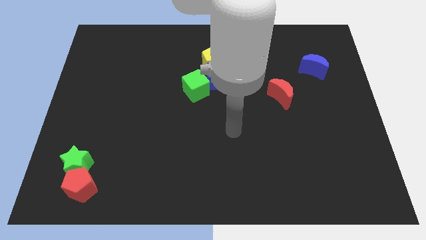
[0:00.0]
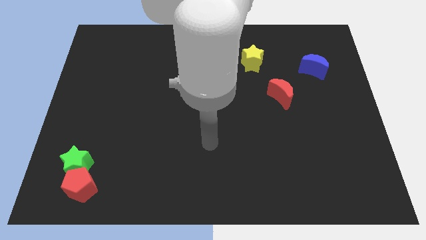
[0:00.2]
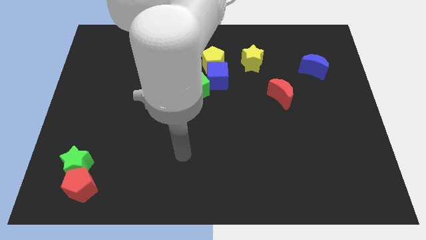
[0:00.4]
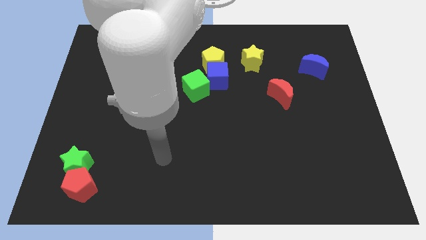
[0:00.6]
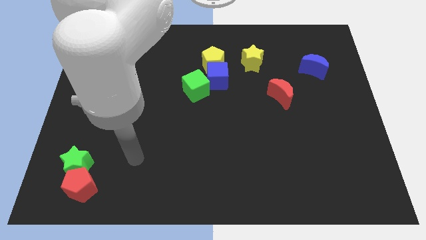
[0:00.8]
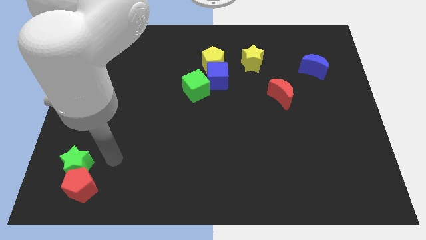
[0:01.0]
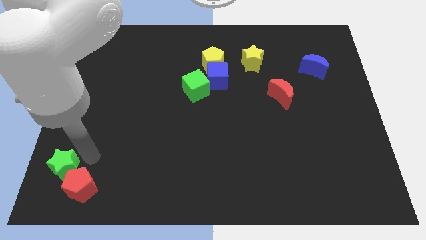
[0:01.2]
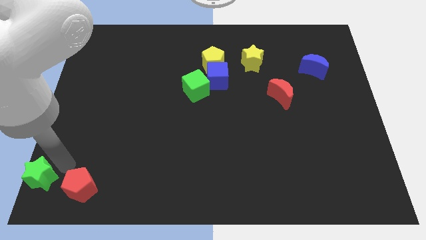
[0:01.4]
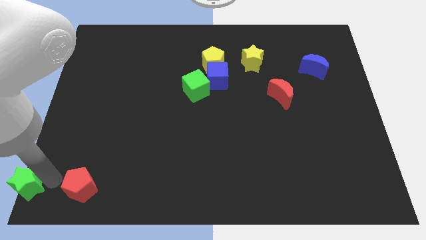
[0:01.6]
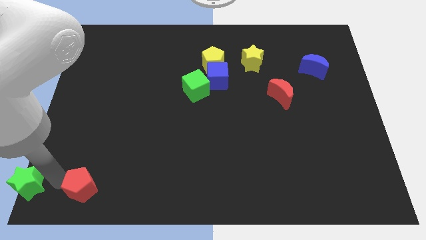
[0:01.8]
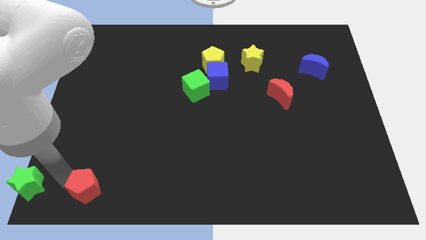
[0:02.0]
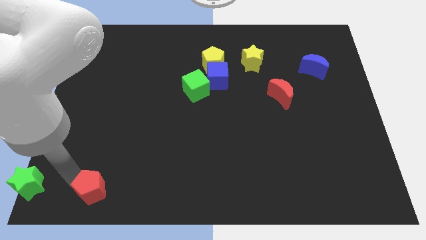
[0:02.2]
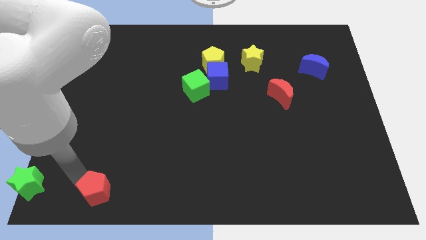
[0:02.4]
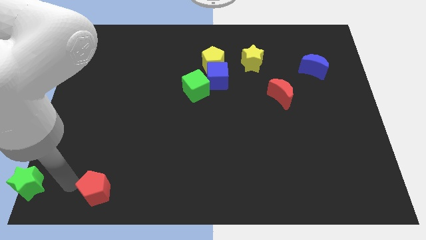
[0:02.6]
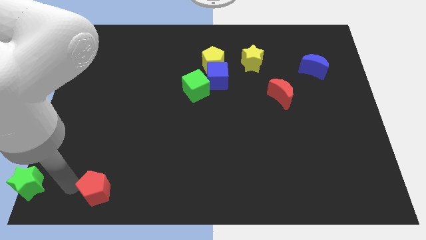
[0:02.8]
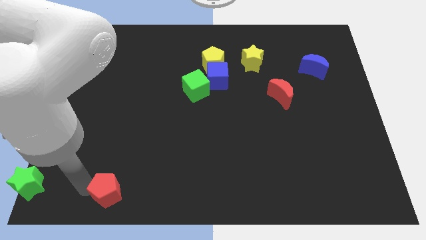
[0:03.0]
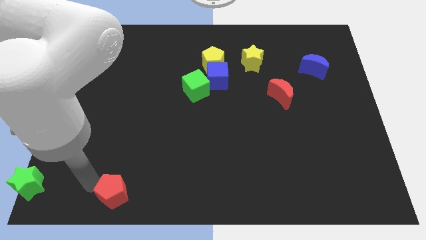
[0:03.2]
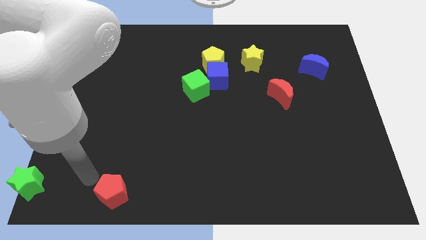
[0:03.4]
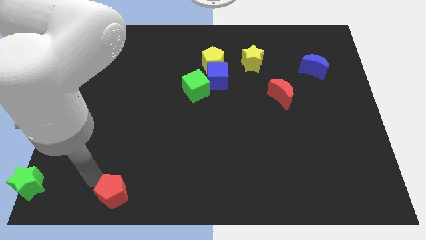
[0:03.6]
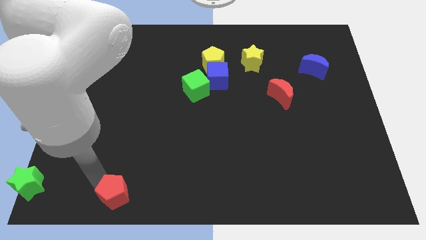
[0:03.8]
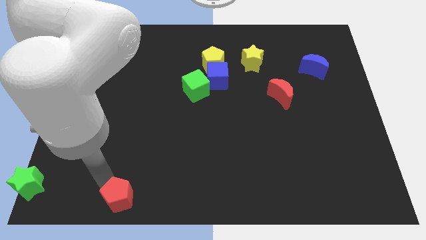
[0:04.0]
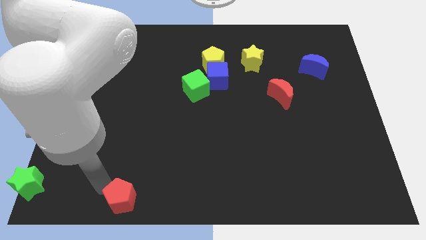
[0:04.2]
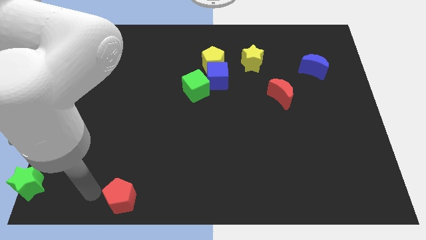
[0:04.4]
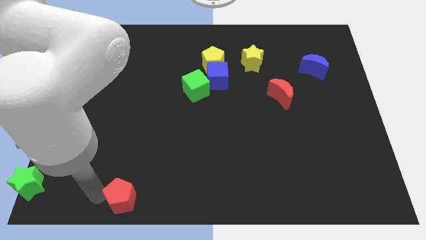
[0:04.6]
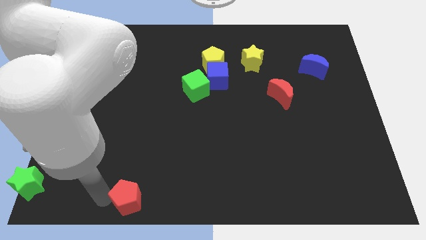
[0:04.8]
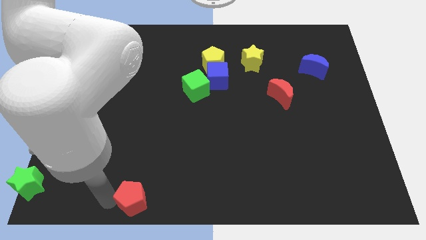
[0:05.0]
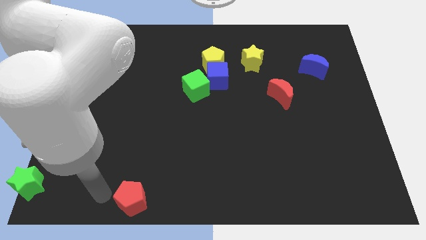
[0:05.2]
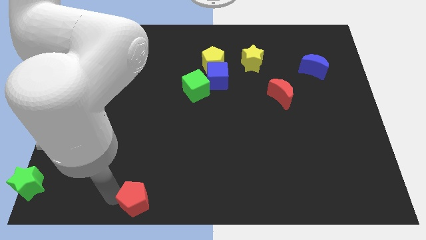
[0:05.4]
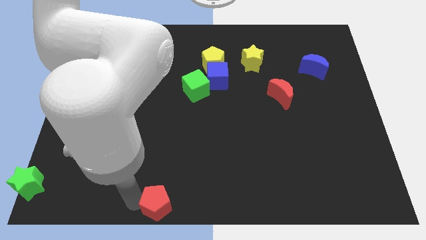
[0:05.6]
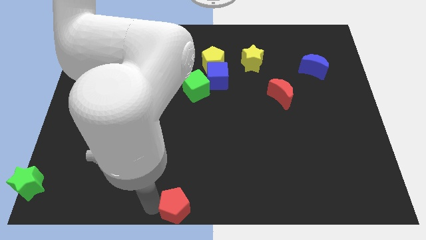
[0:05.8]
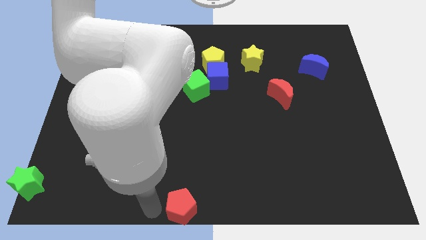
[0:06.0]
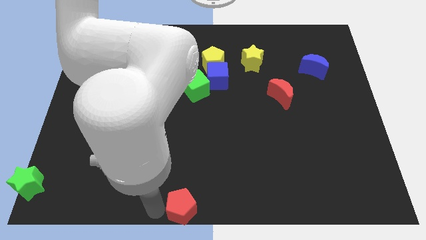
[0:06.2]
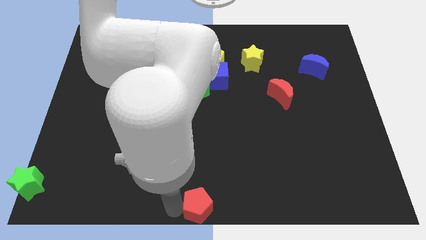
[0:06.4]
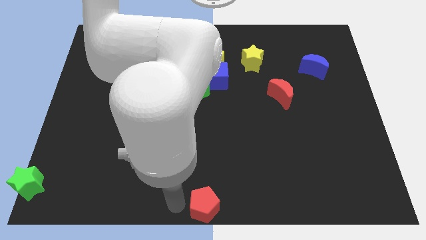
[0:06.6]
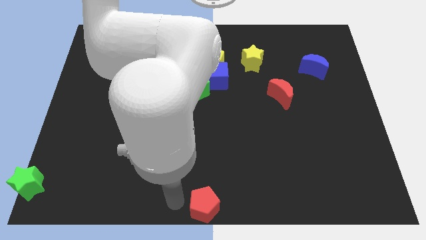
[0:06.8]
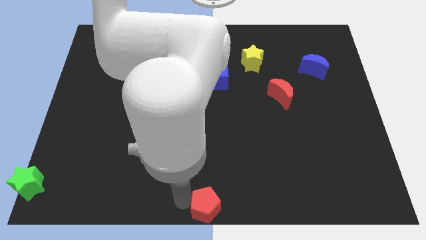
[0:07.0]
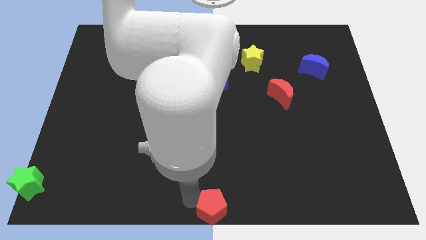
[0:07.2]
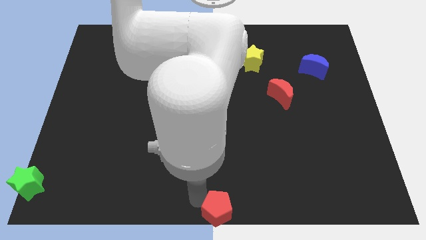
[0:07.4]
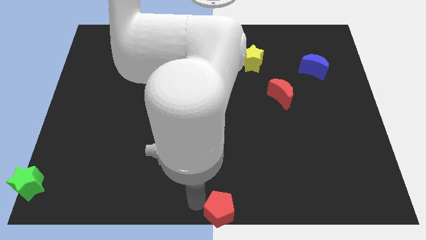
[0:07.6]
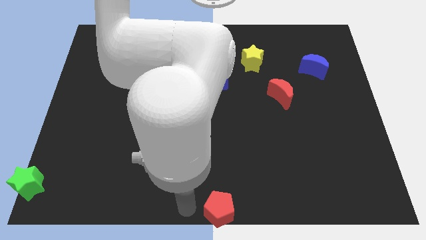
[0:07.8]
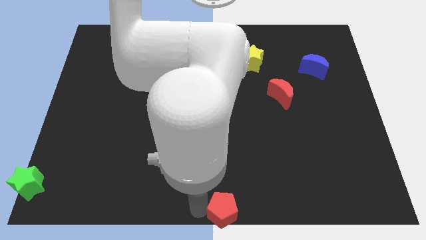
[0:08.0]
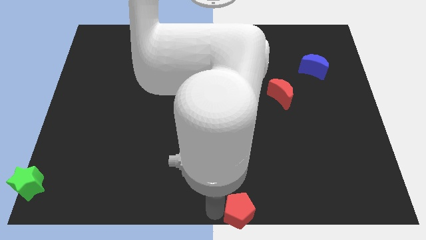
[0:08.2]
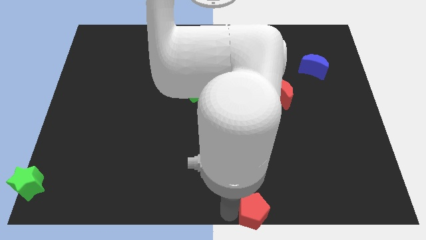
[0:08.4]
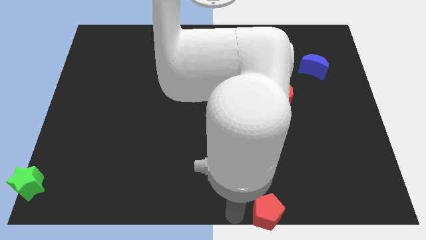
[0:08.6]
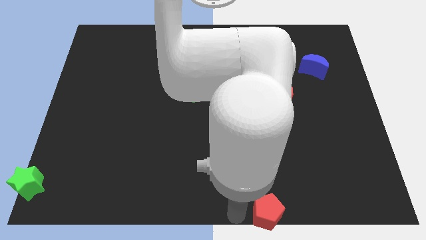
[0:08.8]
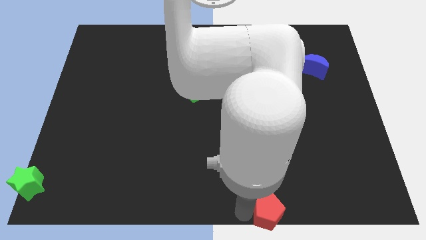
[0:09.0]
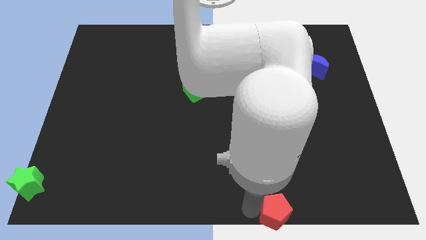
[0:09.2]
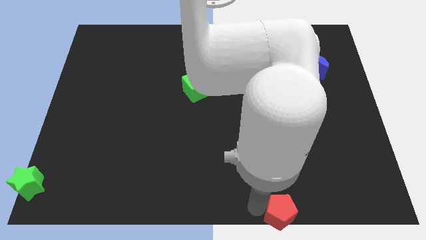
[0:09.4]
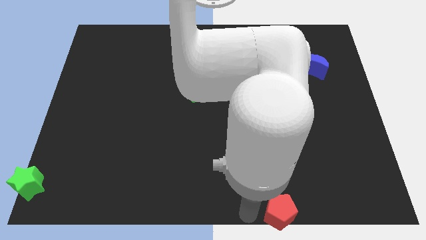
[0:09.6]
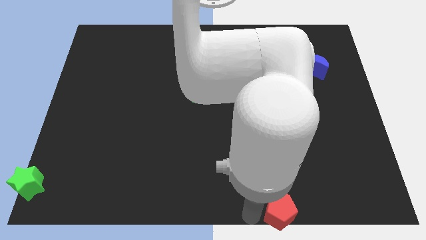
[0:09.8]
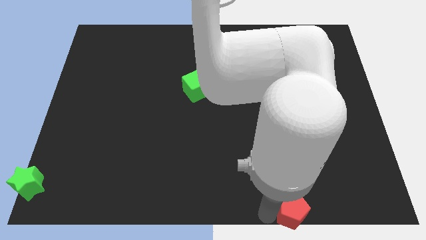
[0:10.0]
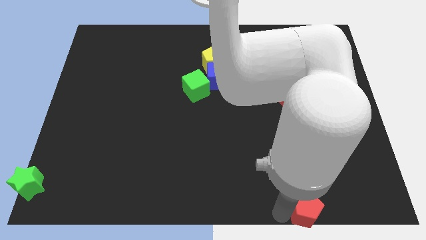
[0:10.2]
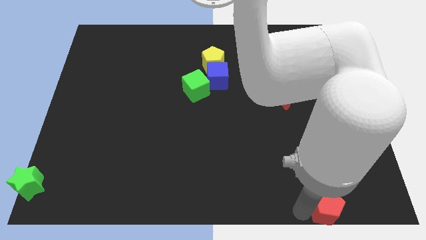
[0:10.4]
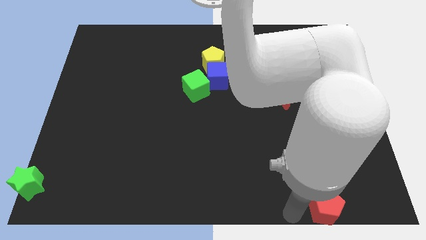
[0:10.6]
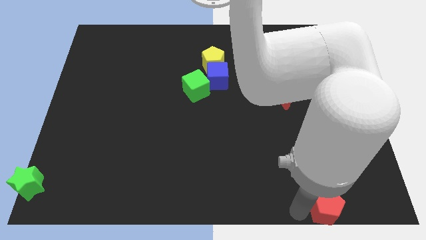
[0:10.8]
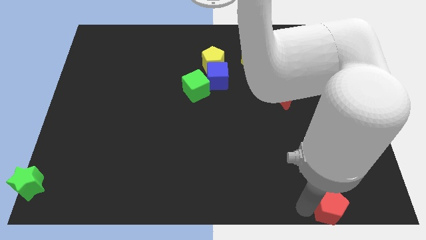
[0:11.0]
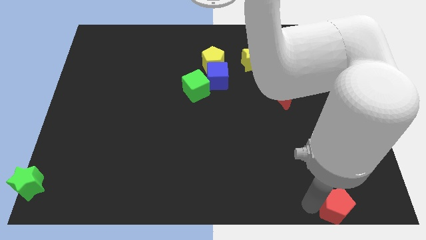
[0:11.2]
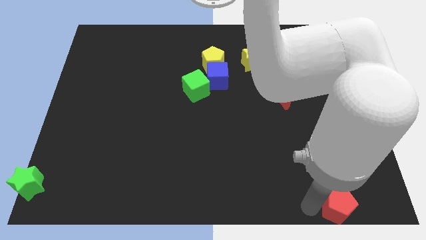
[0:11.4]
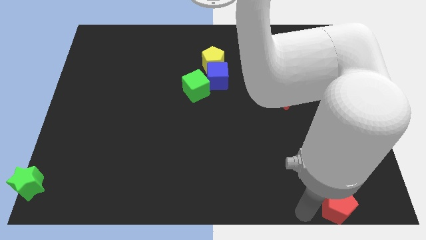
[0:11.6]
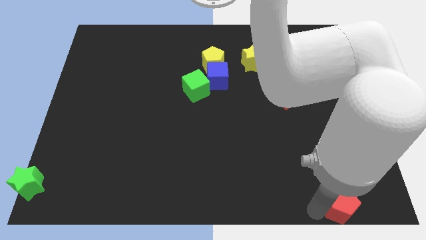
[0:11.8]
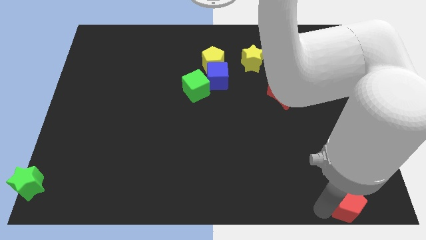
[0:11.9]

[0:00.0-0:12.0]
put the red pentagon to the bottom right
